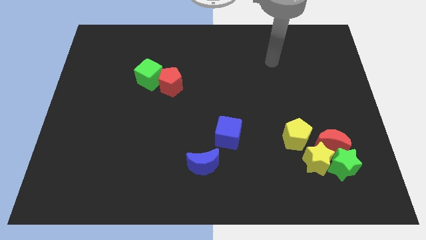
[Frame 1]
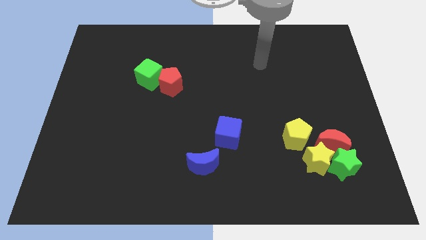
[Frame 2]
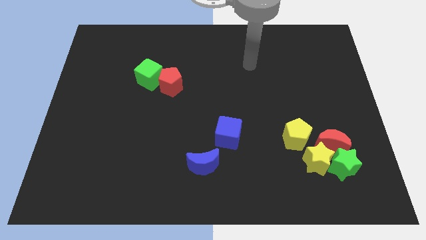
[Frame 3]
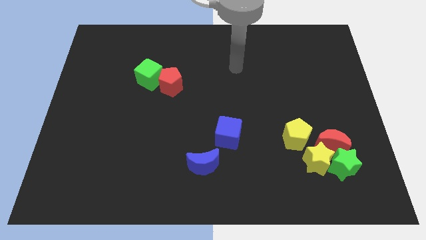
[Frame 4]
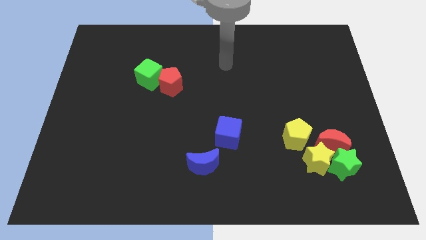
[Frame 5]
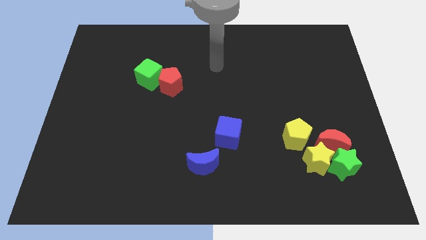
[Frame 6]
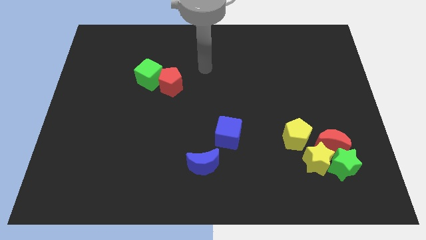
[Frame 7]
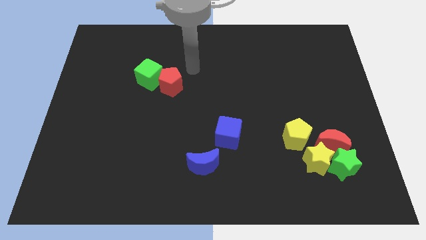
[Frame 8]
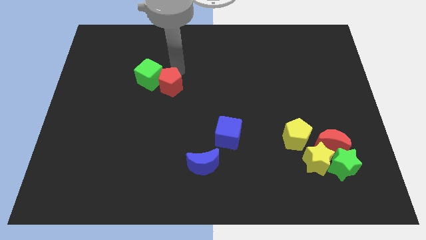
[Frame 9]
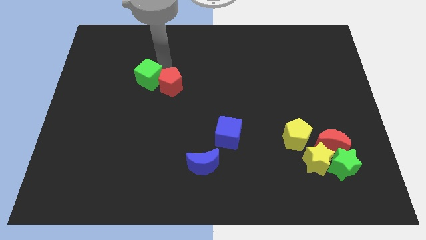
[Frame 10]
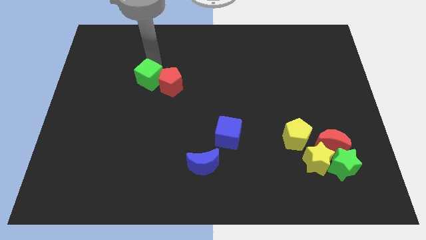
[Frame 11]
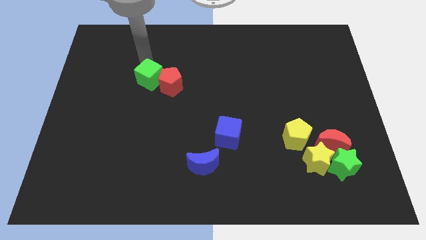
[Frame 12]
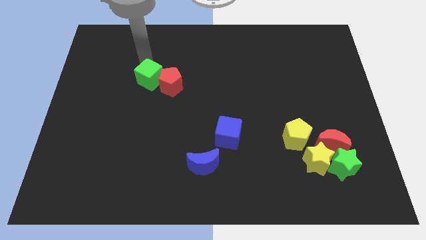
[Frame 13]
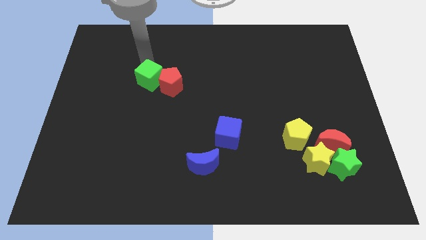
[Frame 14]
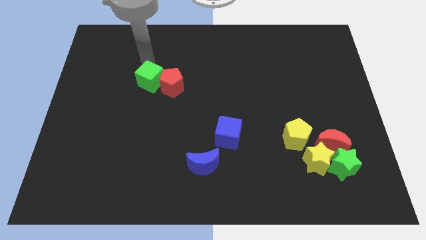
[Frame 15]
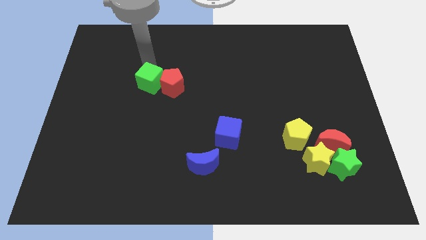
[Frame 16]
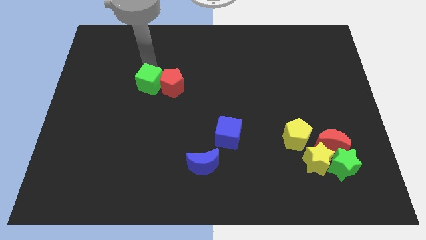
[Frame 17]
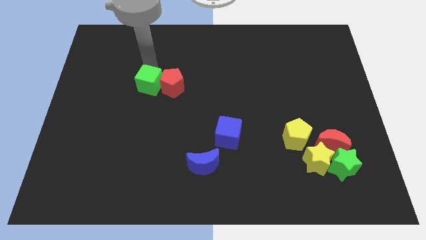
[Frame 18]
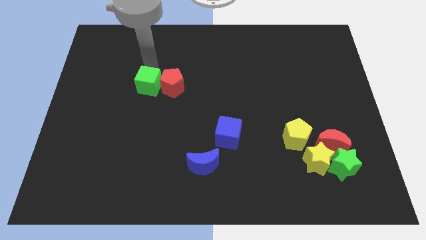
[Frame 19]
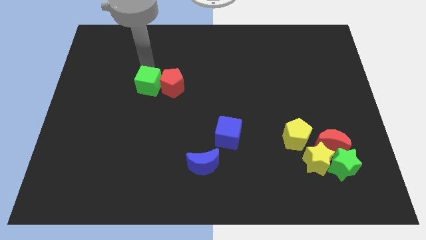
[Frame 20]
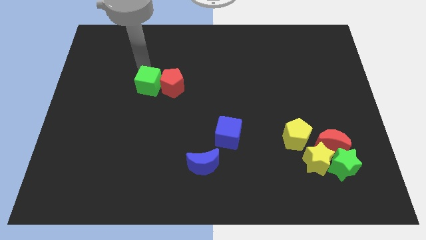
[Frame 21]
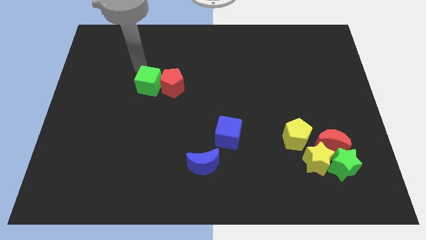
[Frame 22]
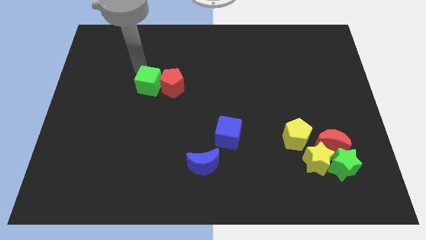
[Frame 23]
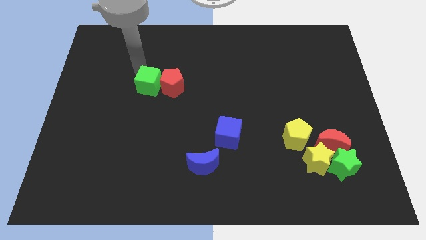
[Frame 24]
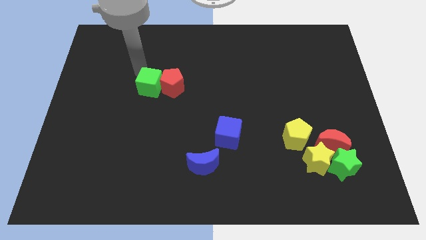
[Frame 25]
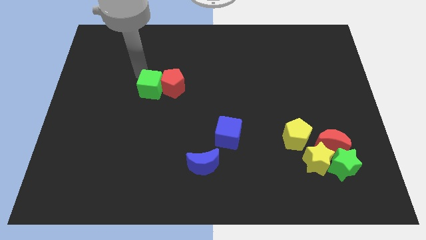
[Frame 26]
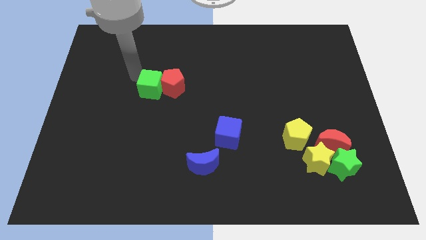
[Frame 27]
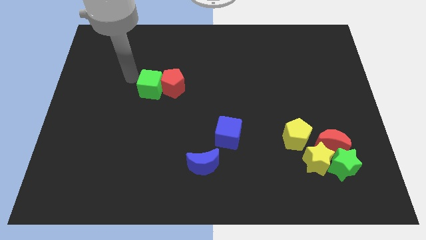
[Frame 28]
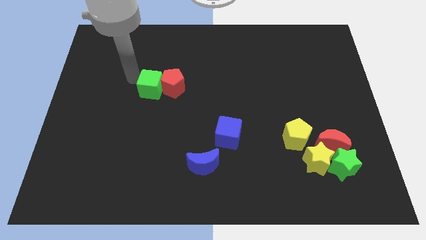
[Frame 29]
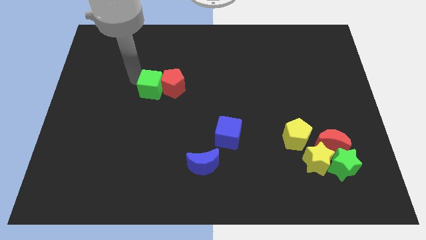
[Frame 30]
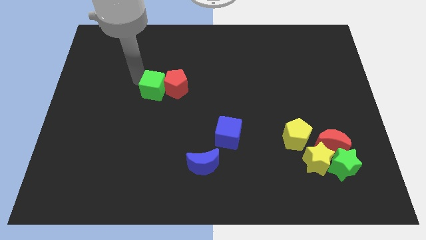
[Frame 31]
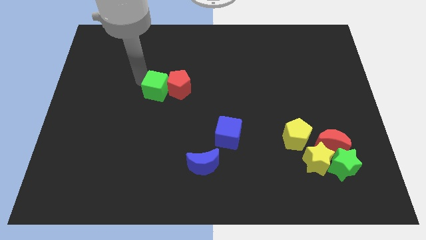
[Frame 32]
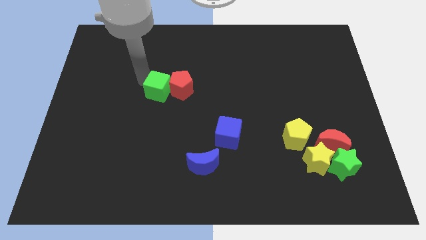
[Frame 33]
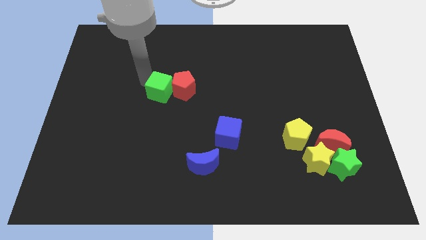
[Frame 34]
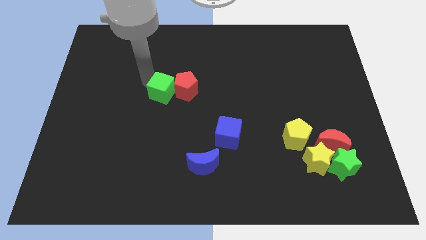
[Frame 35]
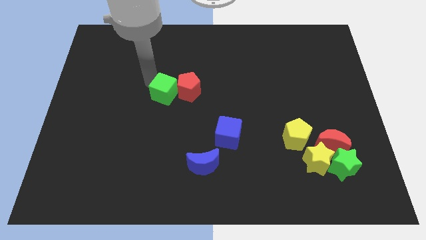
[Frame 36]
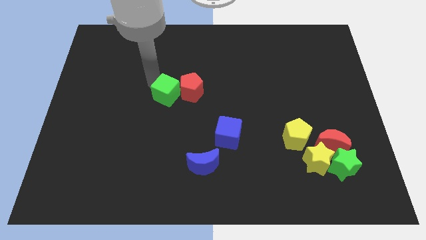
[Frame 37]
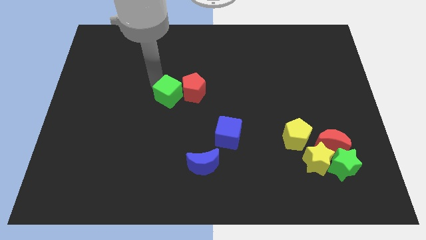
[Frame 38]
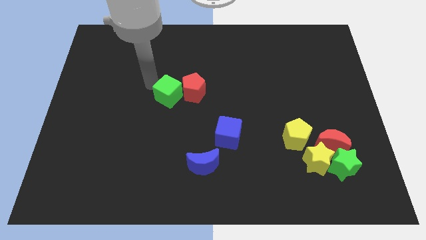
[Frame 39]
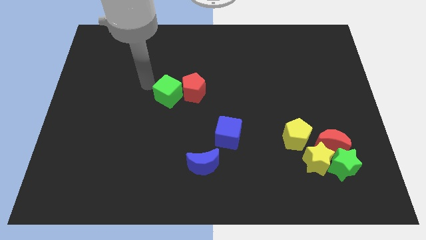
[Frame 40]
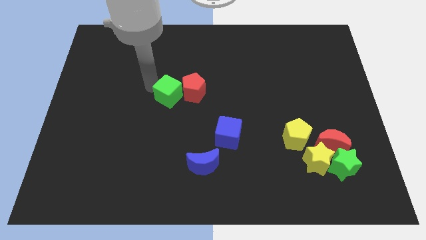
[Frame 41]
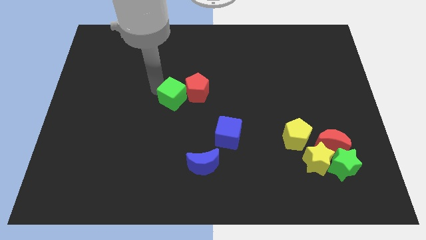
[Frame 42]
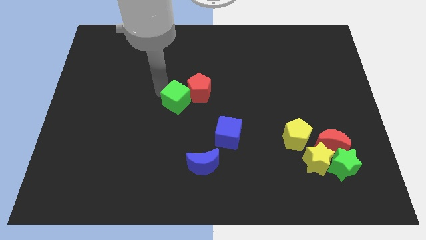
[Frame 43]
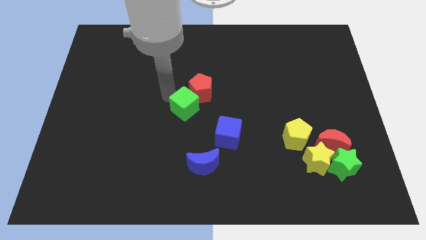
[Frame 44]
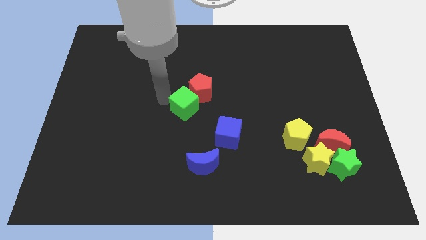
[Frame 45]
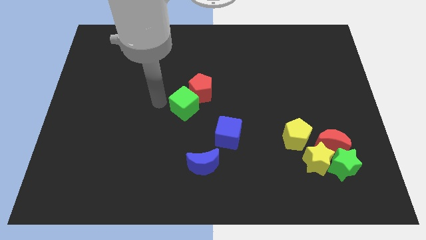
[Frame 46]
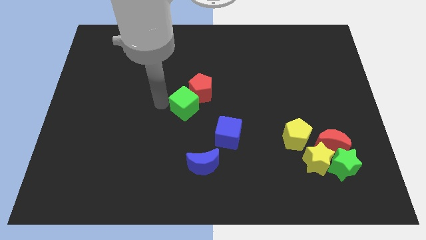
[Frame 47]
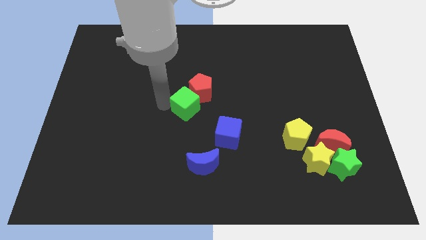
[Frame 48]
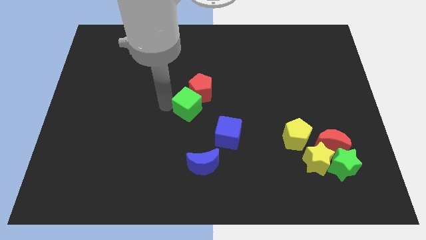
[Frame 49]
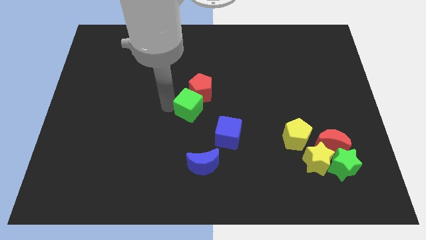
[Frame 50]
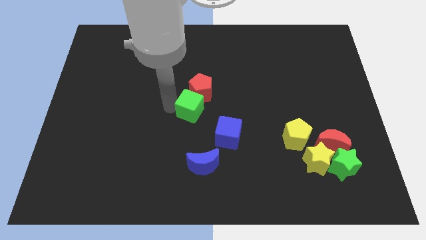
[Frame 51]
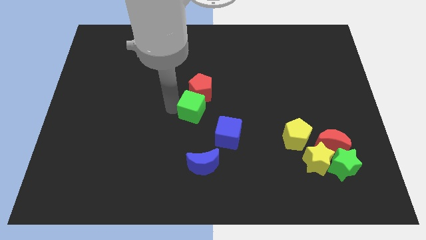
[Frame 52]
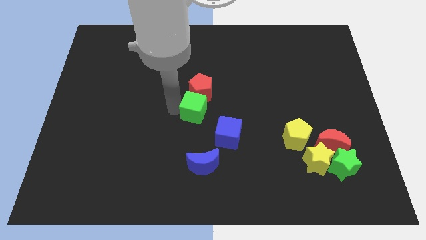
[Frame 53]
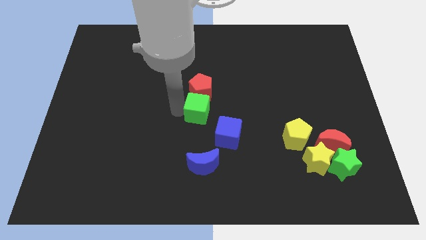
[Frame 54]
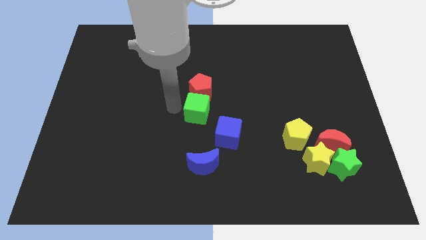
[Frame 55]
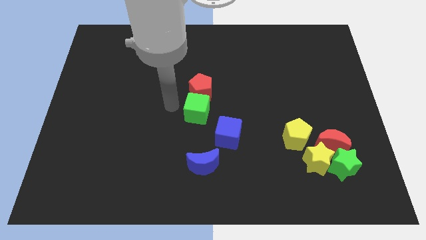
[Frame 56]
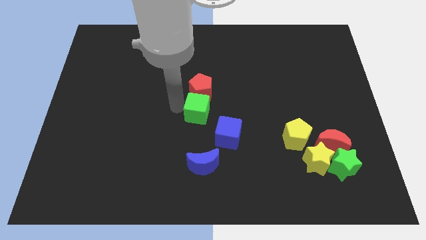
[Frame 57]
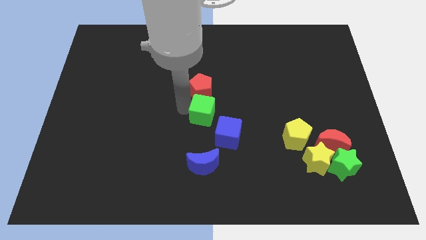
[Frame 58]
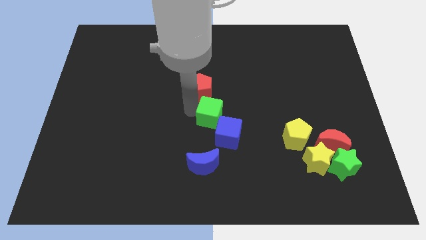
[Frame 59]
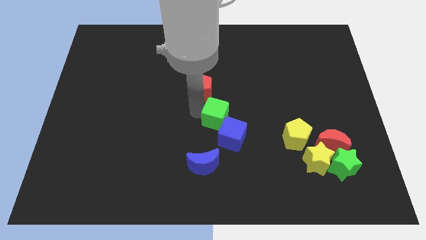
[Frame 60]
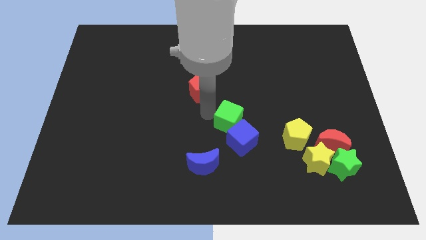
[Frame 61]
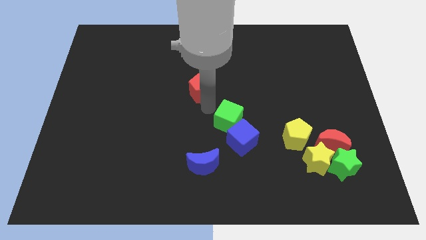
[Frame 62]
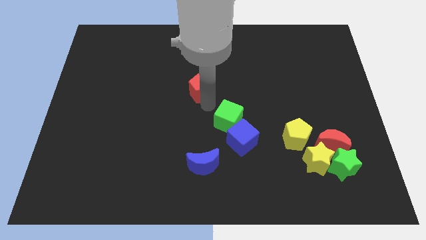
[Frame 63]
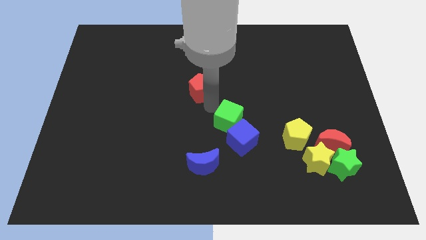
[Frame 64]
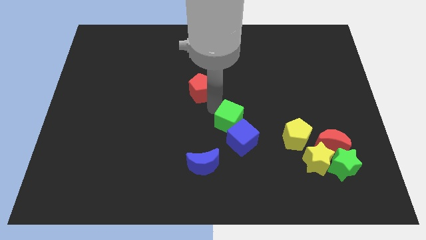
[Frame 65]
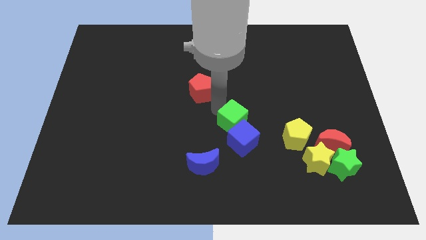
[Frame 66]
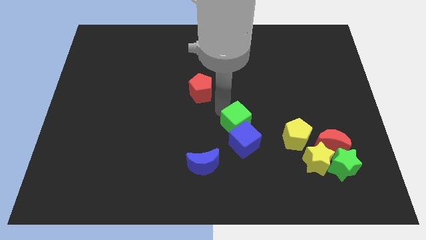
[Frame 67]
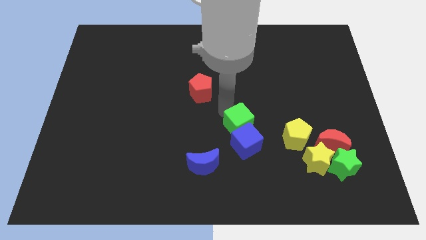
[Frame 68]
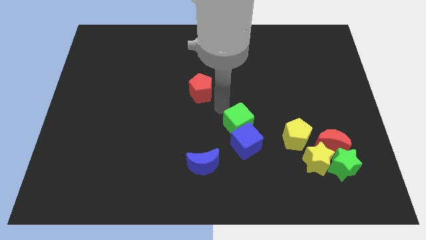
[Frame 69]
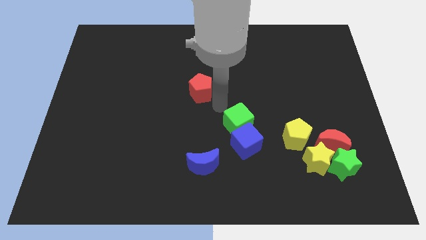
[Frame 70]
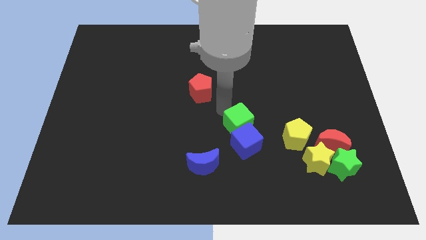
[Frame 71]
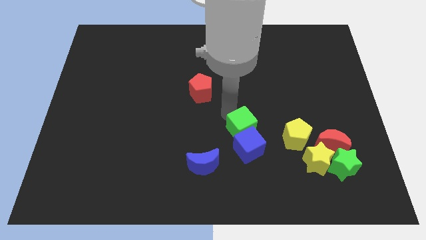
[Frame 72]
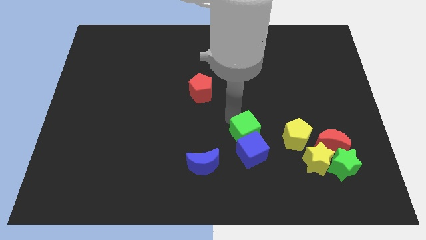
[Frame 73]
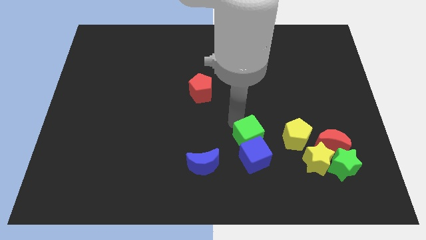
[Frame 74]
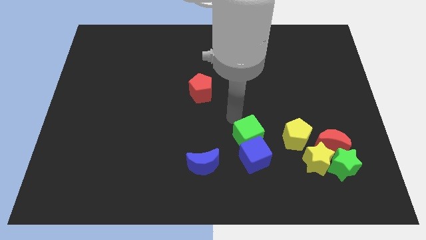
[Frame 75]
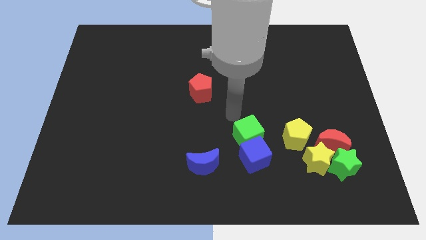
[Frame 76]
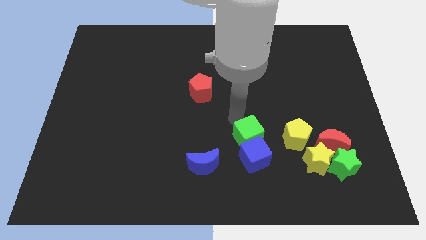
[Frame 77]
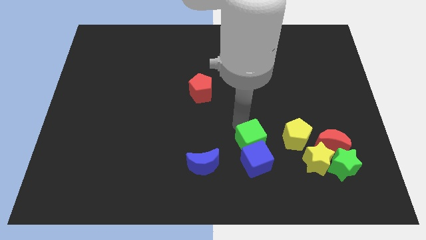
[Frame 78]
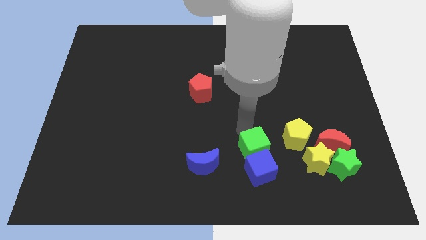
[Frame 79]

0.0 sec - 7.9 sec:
push the green cube to the left of the yellow star
